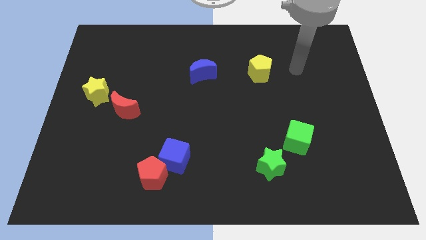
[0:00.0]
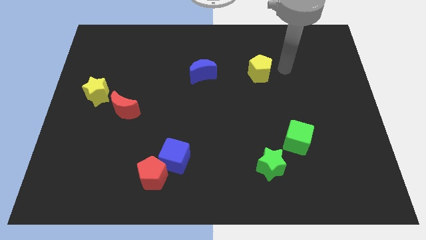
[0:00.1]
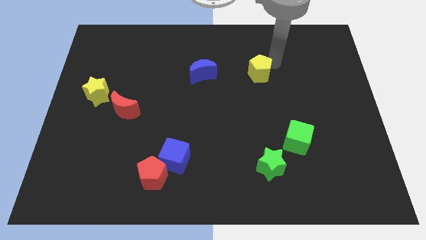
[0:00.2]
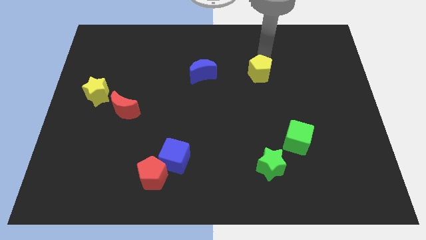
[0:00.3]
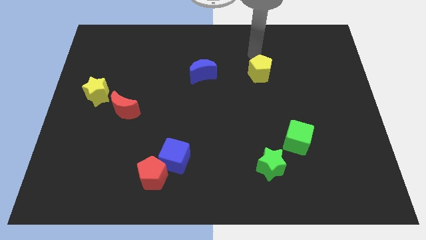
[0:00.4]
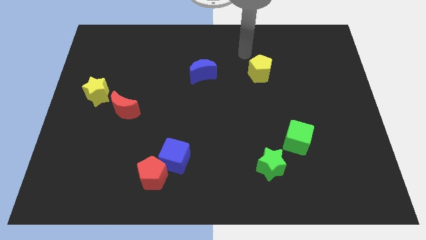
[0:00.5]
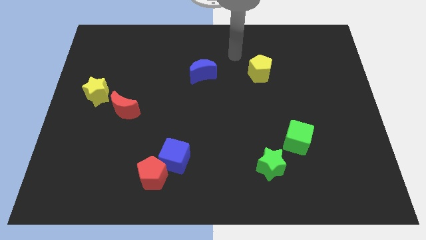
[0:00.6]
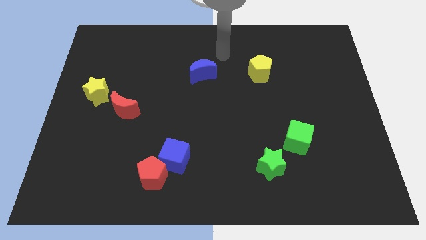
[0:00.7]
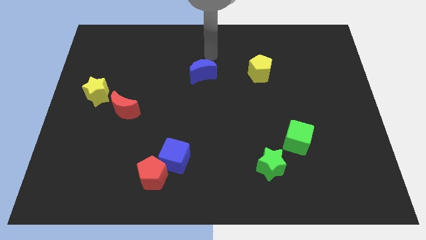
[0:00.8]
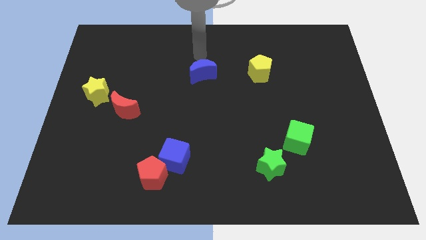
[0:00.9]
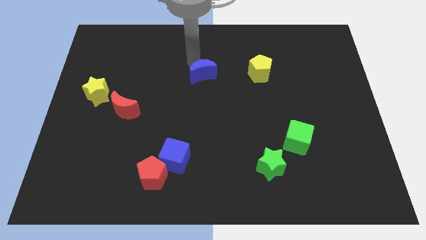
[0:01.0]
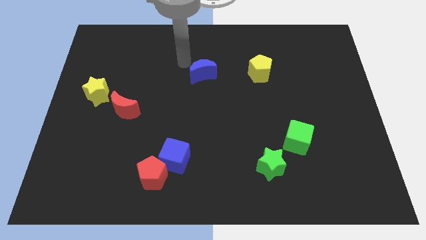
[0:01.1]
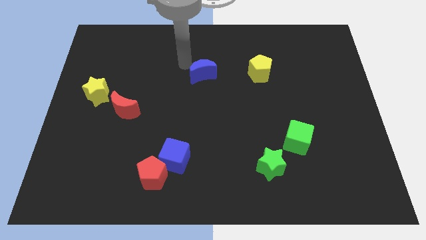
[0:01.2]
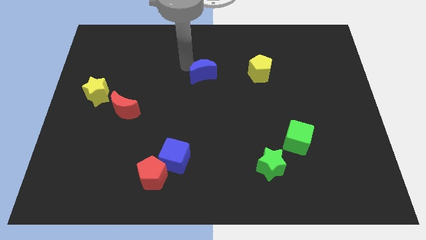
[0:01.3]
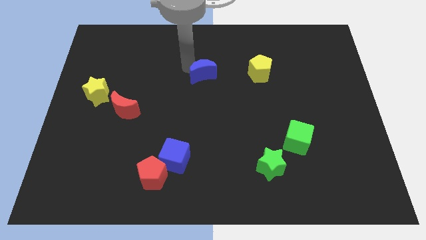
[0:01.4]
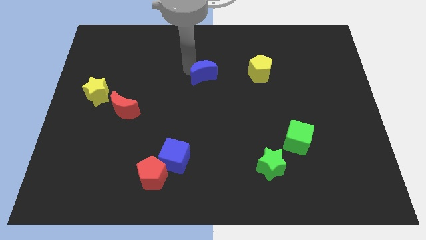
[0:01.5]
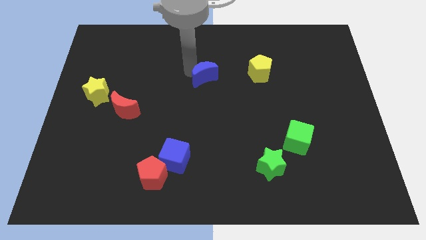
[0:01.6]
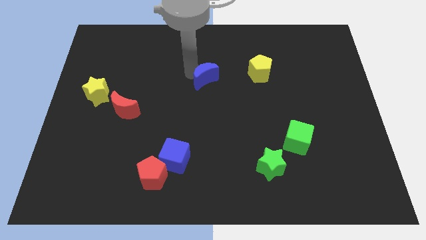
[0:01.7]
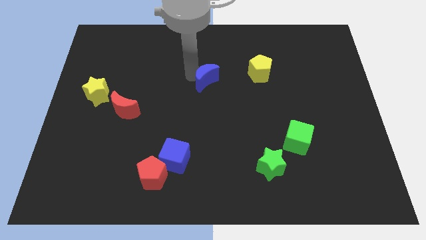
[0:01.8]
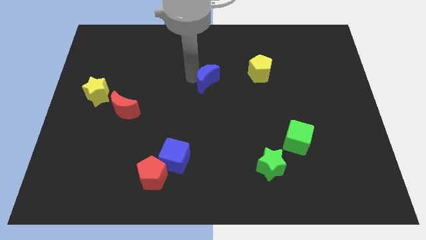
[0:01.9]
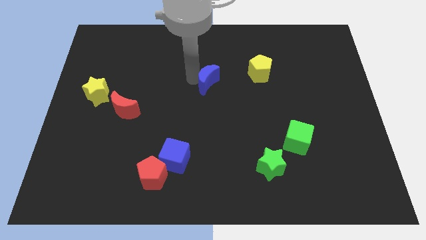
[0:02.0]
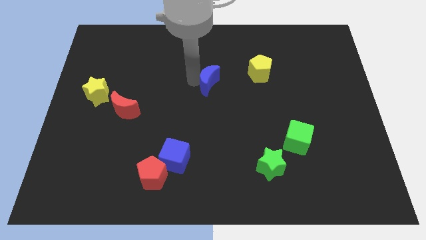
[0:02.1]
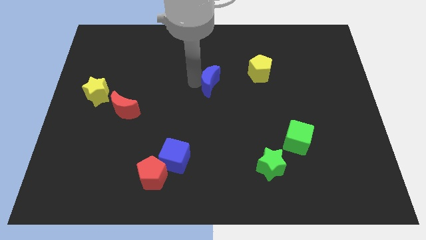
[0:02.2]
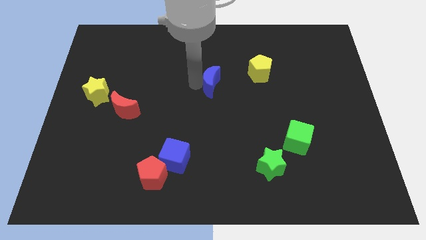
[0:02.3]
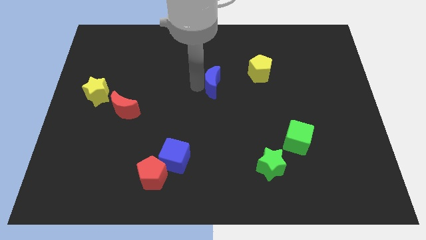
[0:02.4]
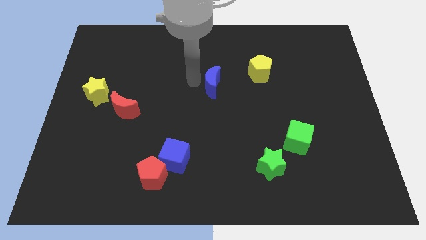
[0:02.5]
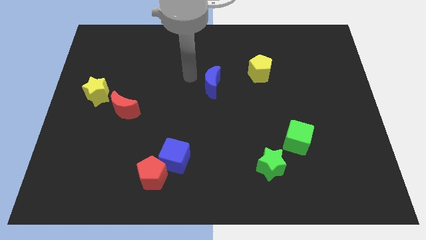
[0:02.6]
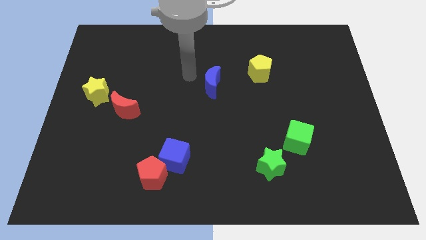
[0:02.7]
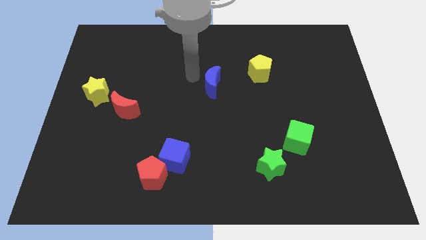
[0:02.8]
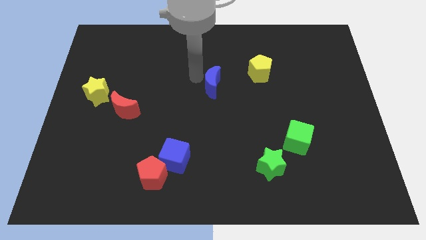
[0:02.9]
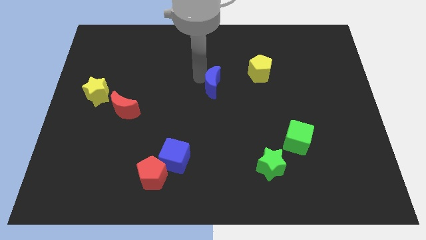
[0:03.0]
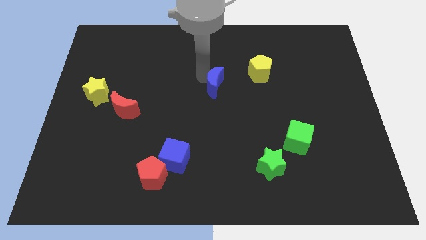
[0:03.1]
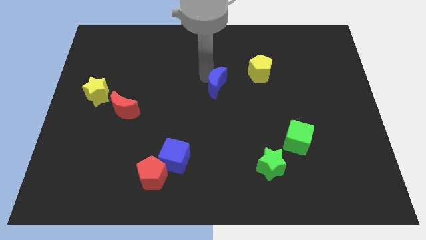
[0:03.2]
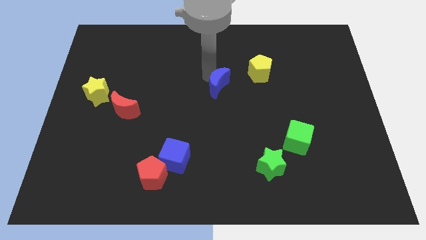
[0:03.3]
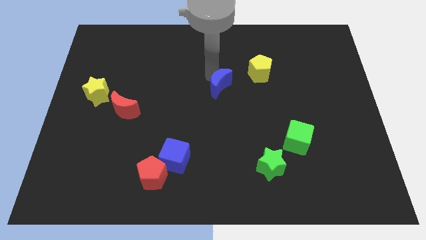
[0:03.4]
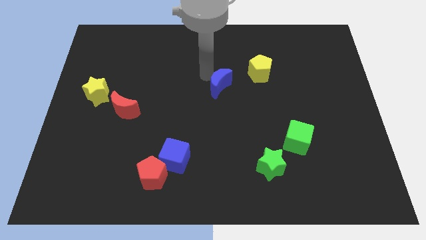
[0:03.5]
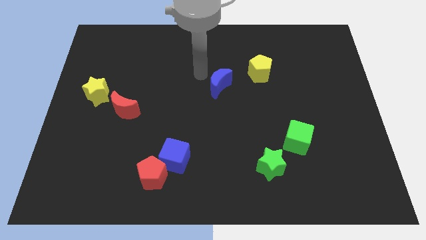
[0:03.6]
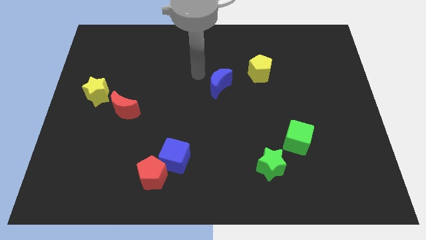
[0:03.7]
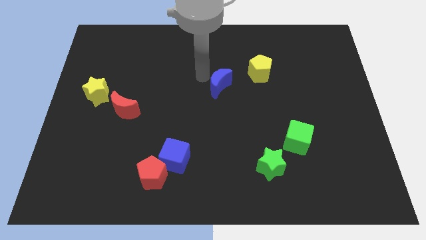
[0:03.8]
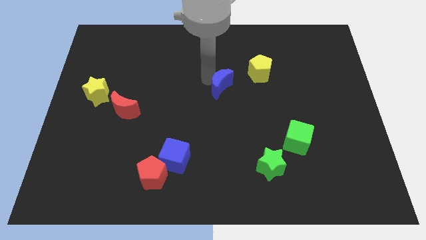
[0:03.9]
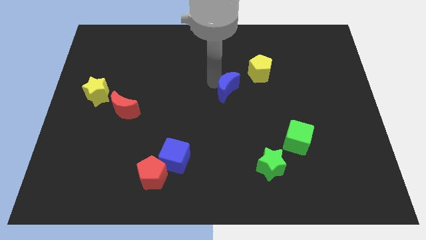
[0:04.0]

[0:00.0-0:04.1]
slightly move the blue moon down and right diagonally

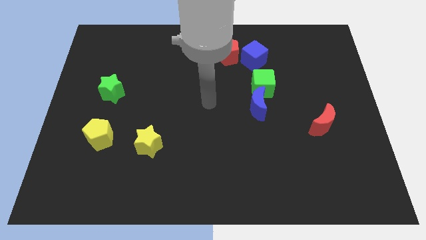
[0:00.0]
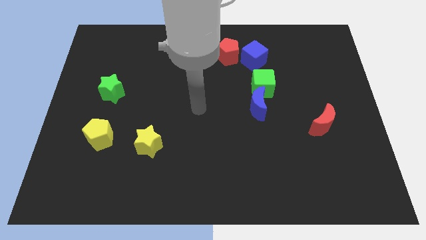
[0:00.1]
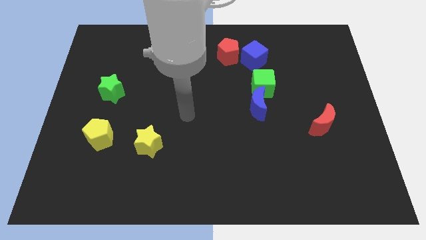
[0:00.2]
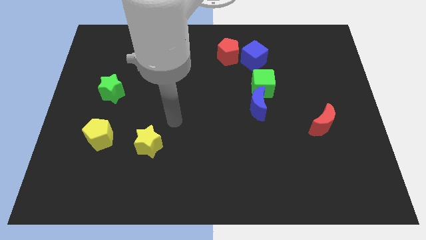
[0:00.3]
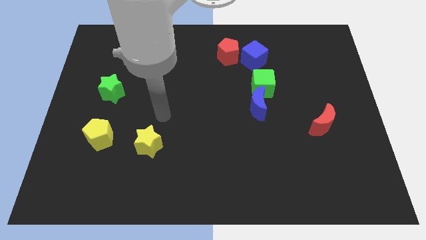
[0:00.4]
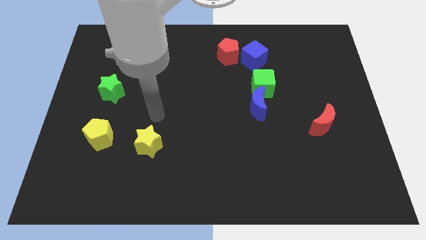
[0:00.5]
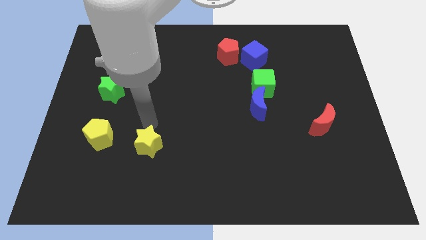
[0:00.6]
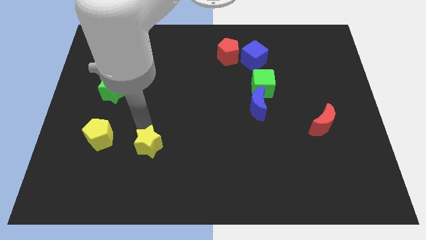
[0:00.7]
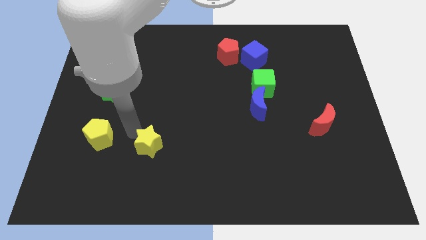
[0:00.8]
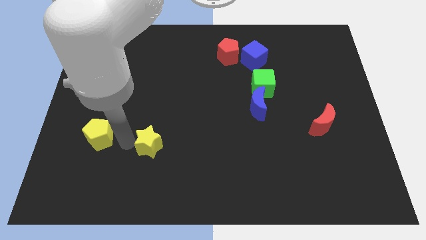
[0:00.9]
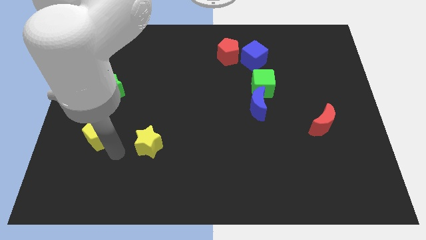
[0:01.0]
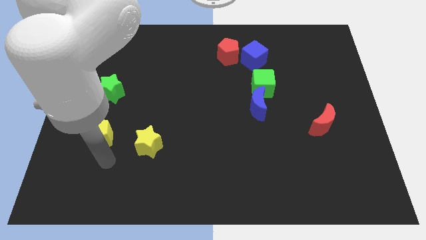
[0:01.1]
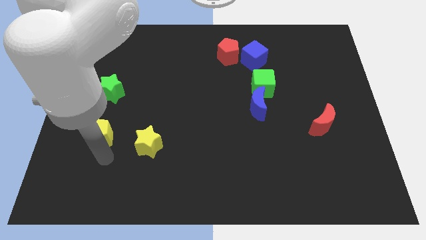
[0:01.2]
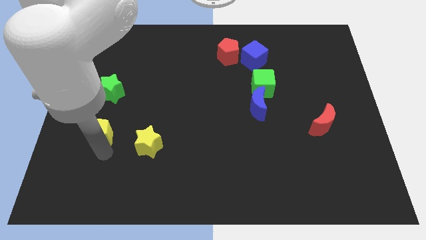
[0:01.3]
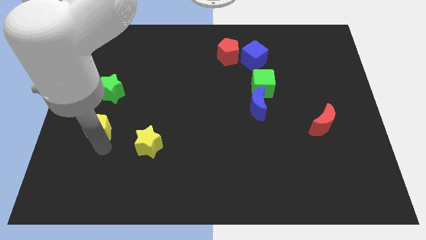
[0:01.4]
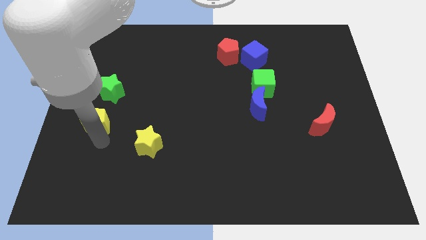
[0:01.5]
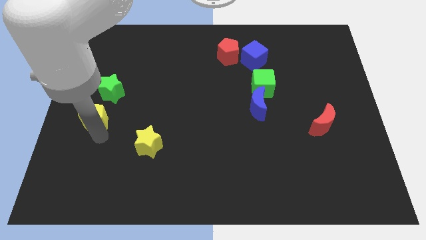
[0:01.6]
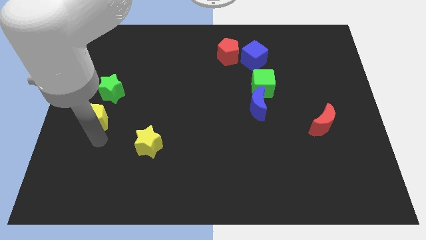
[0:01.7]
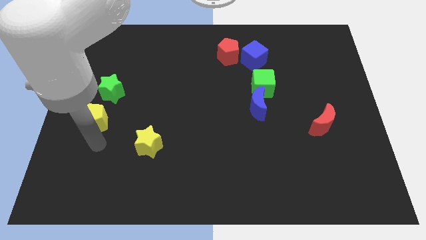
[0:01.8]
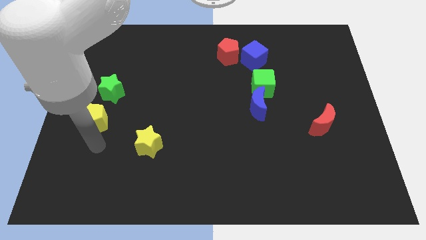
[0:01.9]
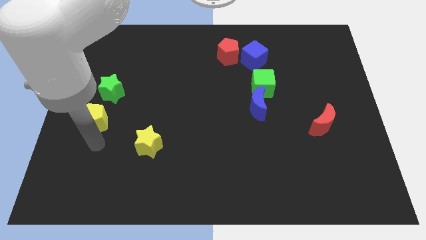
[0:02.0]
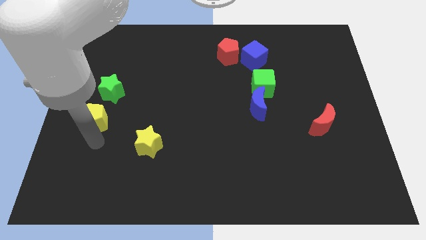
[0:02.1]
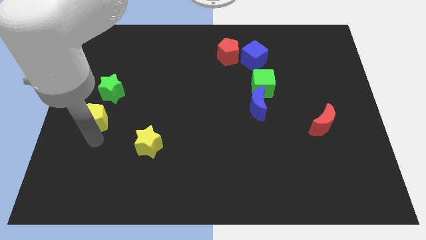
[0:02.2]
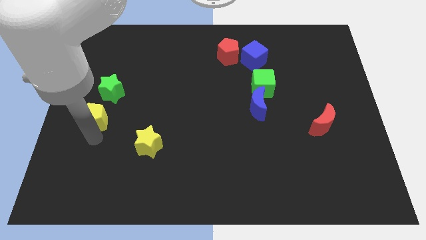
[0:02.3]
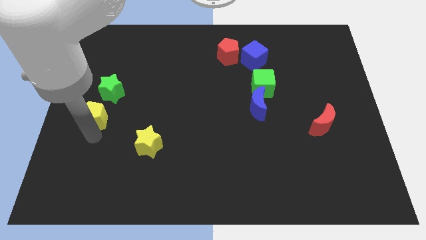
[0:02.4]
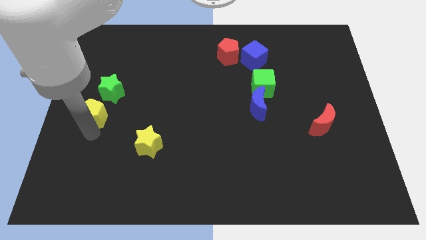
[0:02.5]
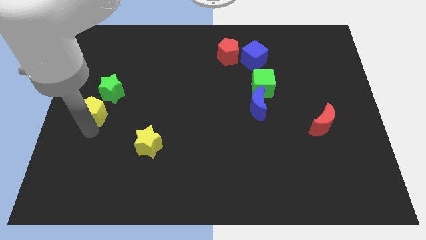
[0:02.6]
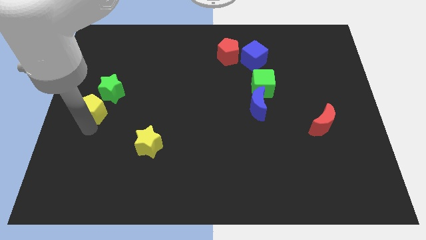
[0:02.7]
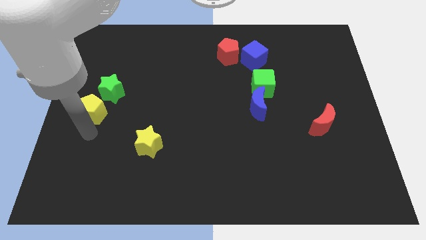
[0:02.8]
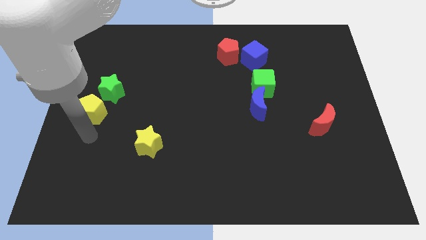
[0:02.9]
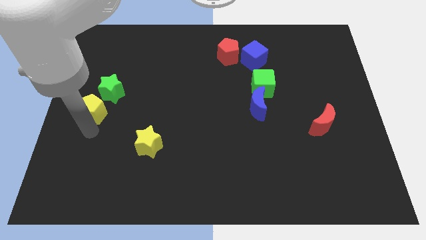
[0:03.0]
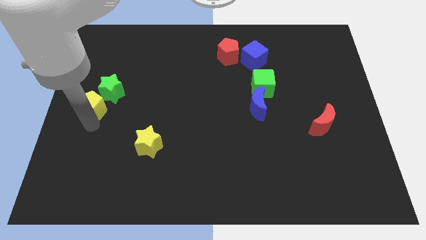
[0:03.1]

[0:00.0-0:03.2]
slightly push the yellow pentagon upwards

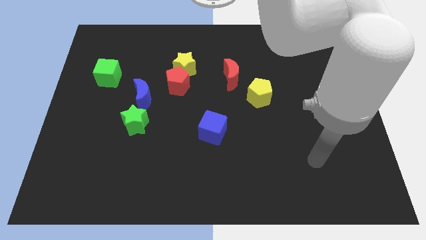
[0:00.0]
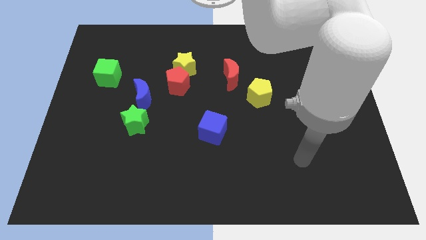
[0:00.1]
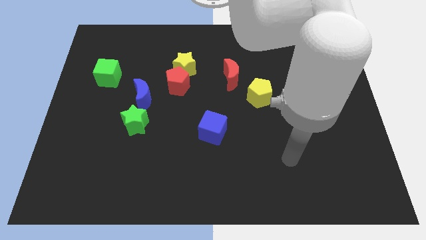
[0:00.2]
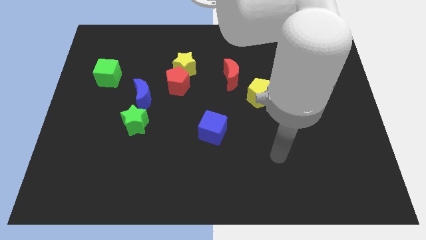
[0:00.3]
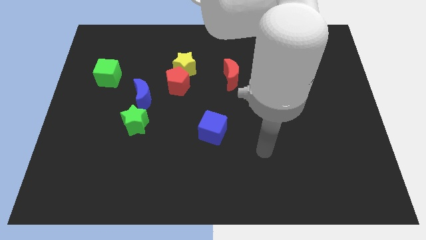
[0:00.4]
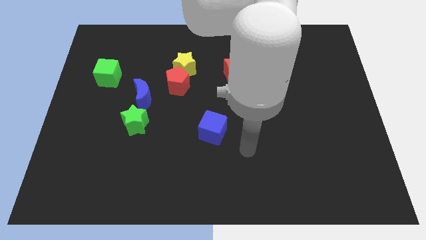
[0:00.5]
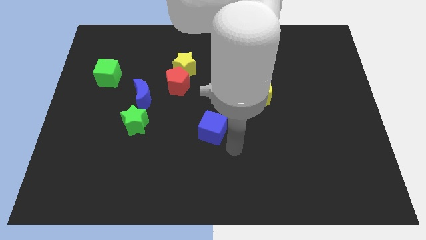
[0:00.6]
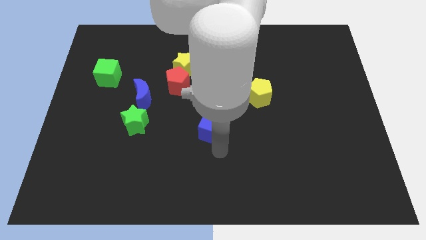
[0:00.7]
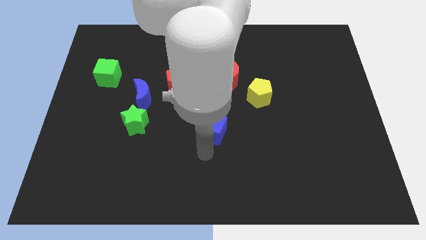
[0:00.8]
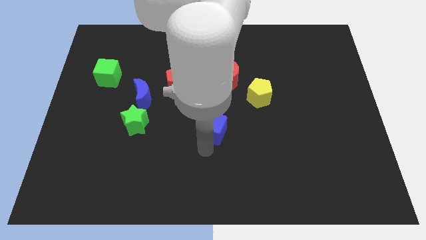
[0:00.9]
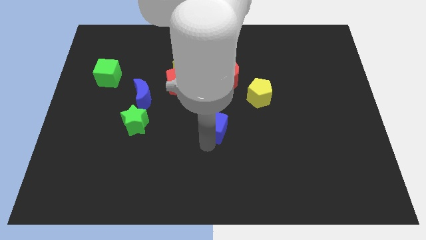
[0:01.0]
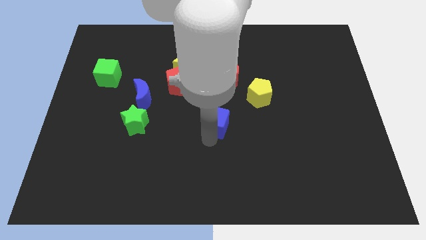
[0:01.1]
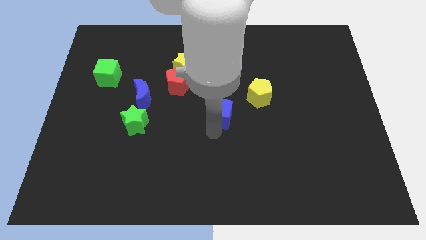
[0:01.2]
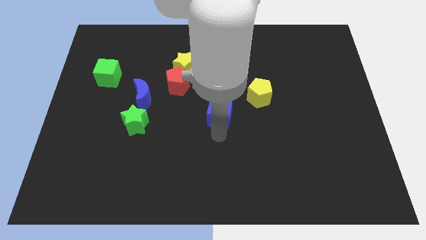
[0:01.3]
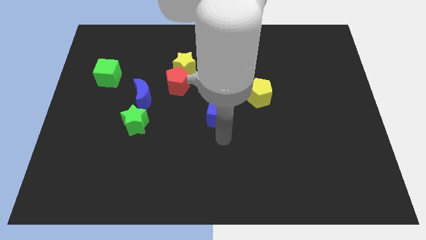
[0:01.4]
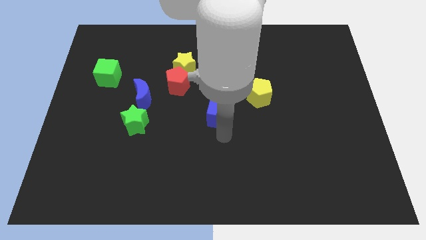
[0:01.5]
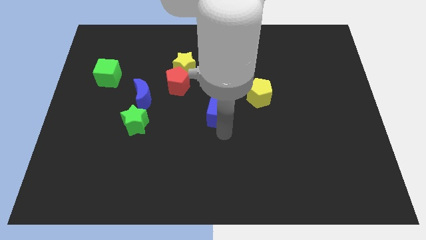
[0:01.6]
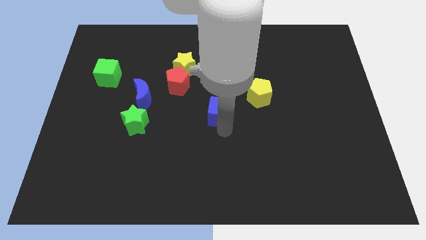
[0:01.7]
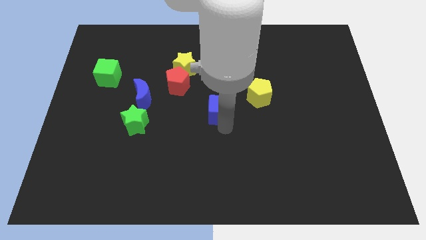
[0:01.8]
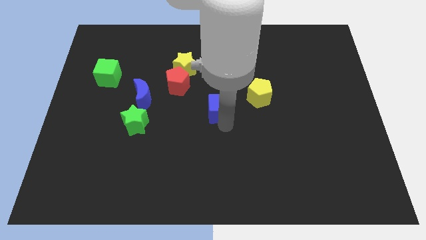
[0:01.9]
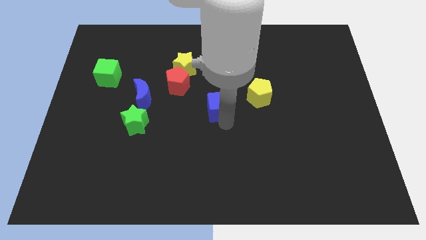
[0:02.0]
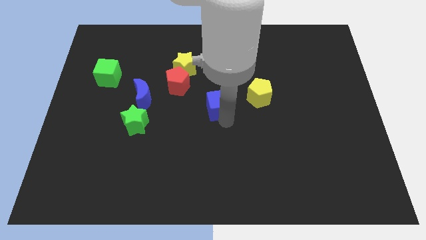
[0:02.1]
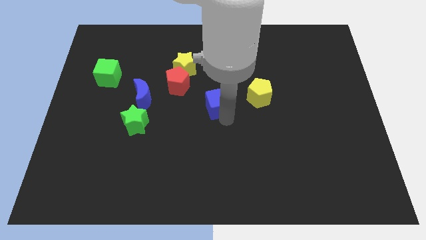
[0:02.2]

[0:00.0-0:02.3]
slightly slide the blue cube up
